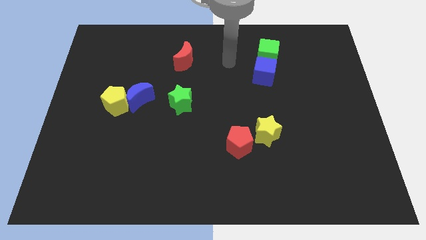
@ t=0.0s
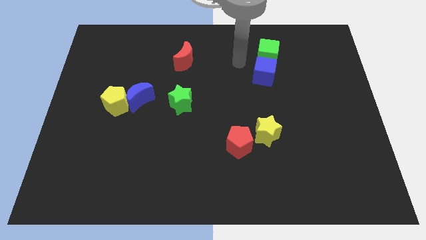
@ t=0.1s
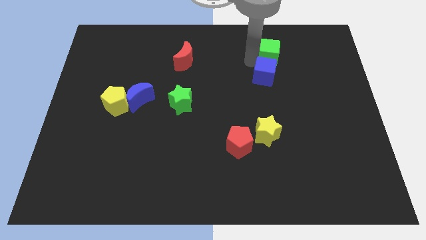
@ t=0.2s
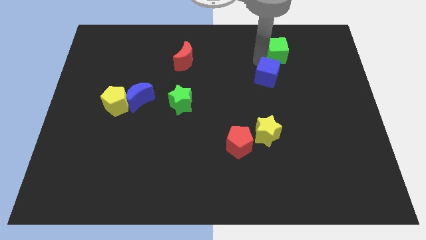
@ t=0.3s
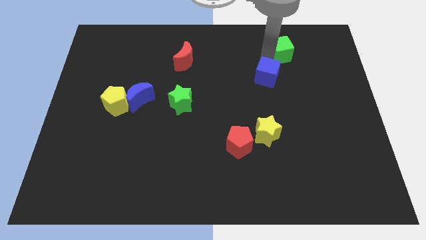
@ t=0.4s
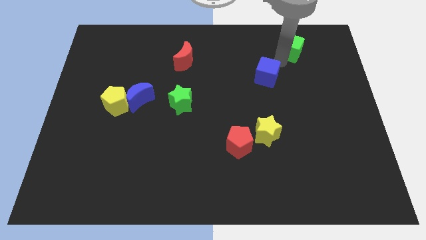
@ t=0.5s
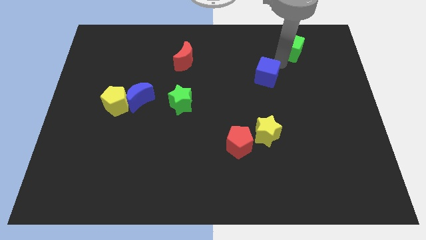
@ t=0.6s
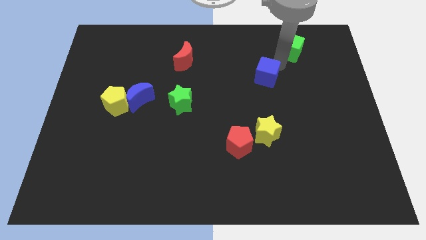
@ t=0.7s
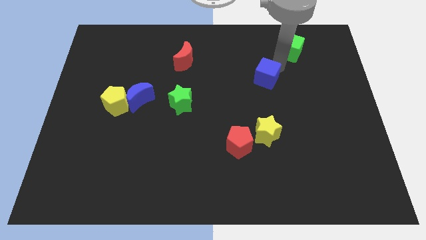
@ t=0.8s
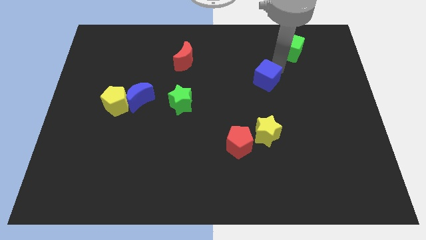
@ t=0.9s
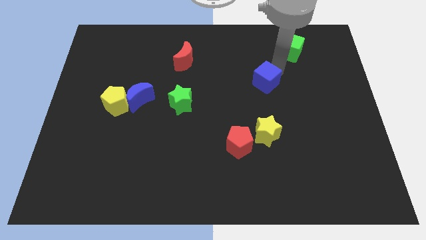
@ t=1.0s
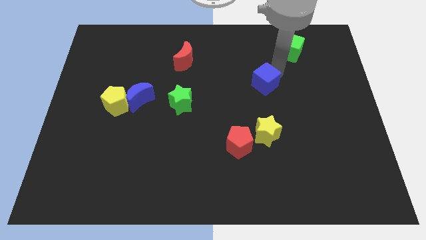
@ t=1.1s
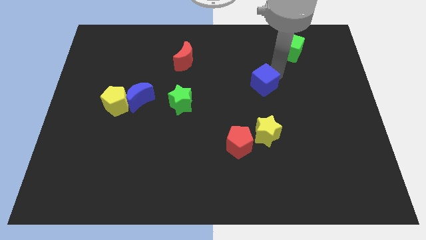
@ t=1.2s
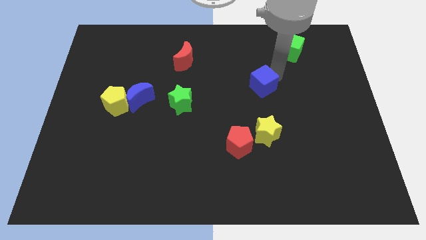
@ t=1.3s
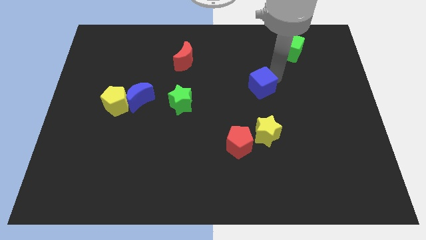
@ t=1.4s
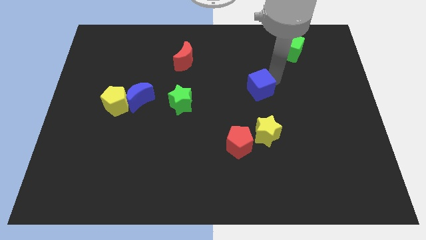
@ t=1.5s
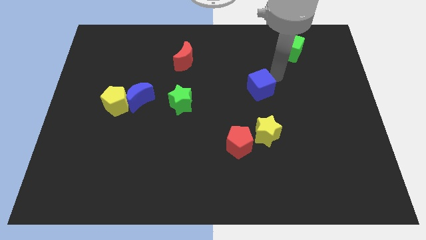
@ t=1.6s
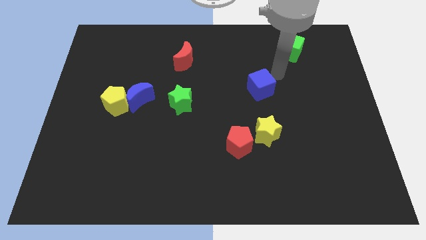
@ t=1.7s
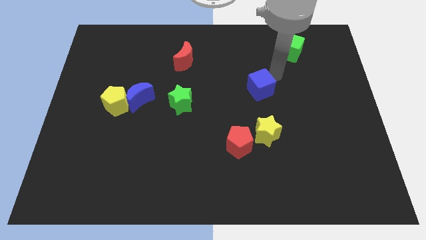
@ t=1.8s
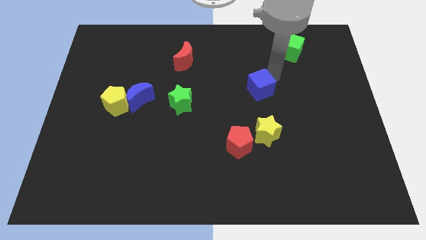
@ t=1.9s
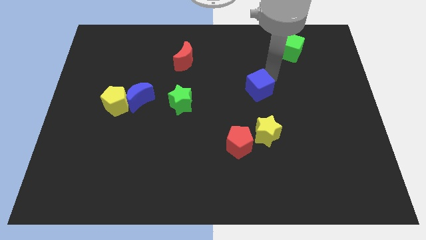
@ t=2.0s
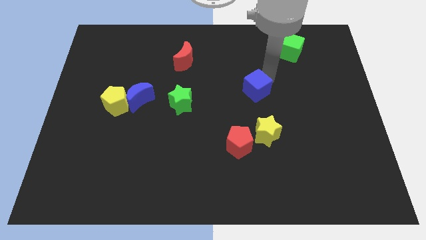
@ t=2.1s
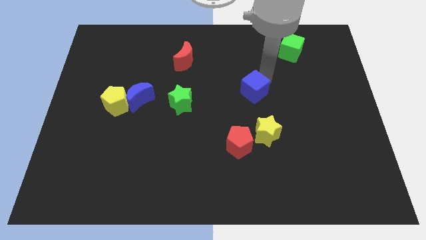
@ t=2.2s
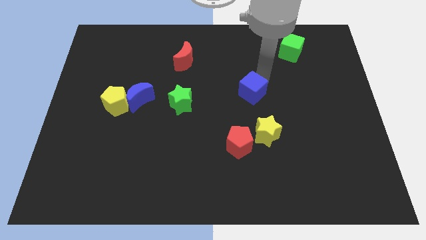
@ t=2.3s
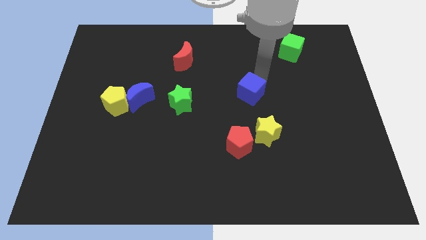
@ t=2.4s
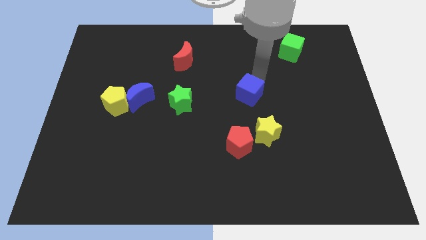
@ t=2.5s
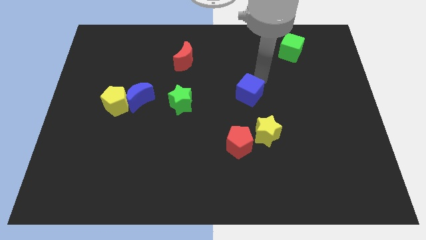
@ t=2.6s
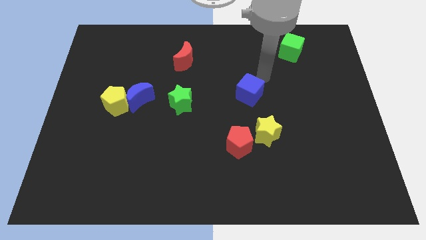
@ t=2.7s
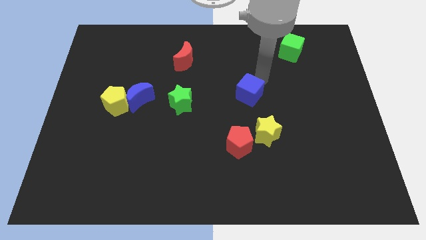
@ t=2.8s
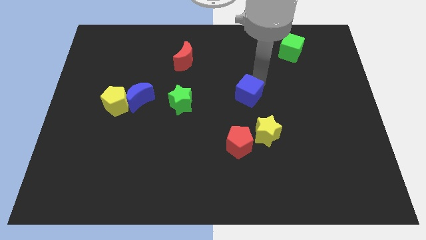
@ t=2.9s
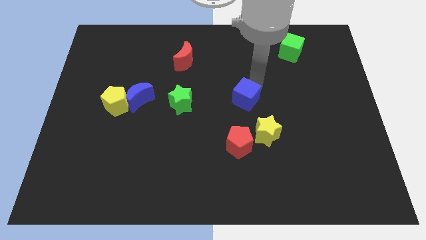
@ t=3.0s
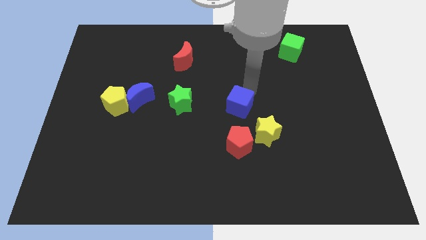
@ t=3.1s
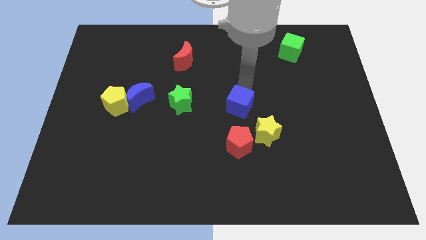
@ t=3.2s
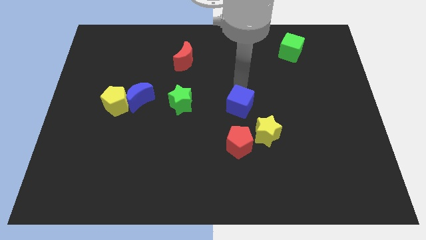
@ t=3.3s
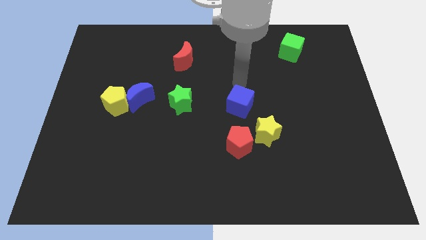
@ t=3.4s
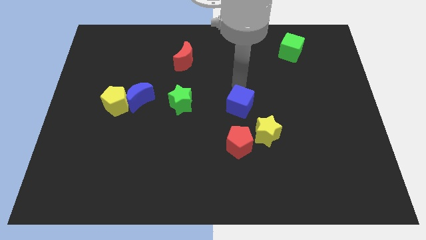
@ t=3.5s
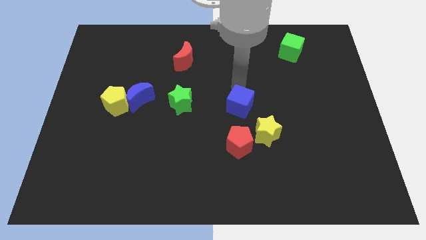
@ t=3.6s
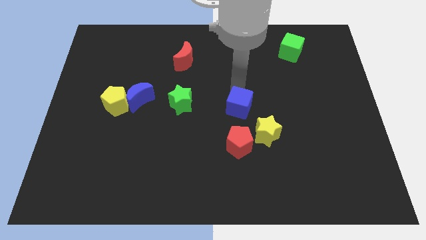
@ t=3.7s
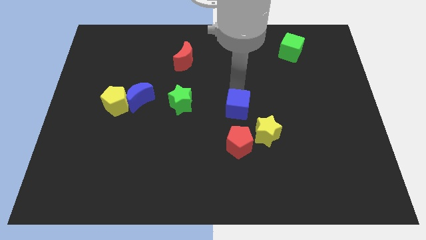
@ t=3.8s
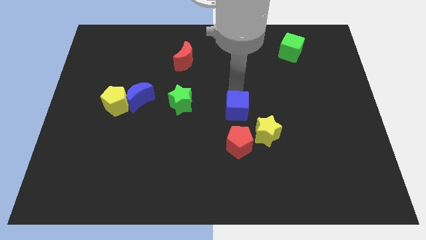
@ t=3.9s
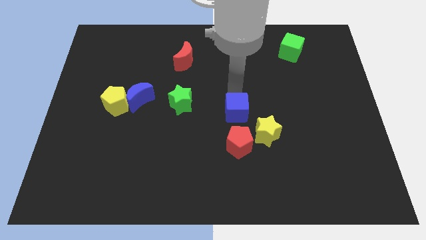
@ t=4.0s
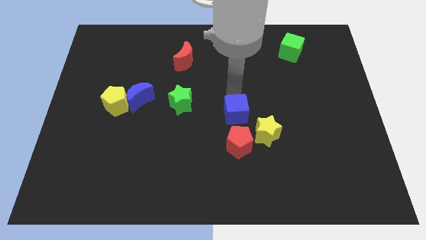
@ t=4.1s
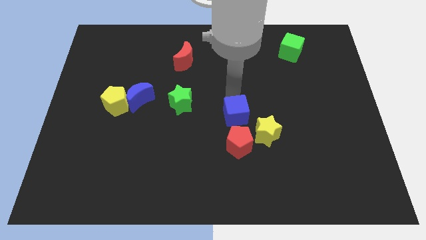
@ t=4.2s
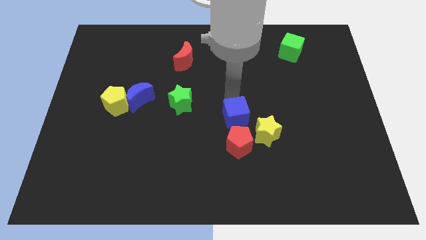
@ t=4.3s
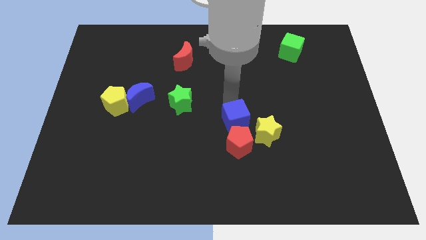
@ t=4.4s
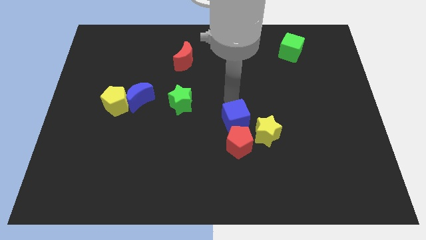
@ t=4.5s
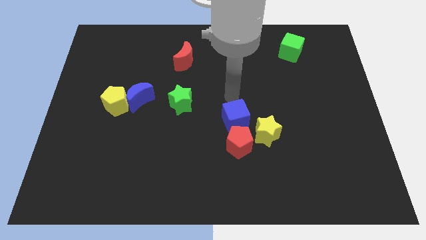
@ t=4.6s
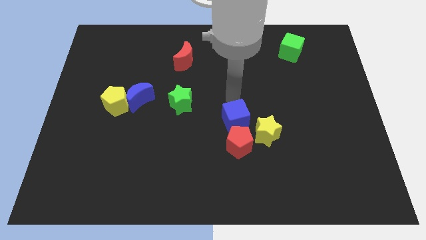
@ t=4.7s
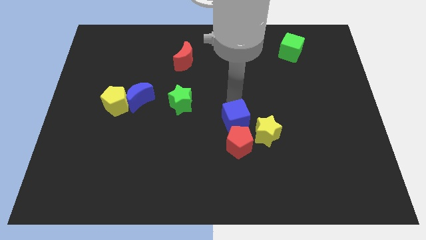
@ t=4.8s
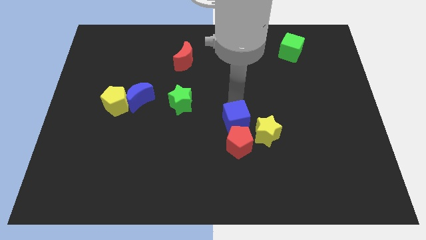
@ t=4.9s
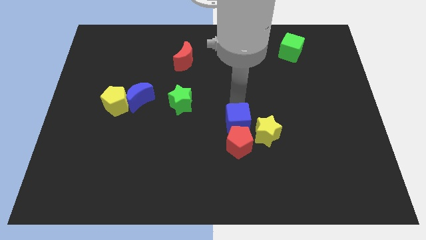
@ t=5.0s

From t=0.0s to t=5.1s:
put the blue cube to the red pentagon

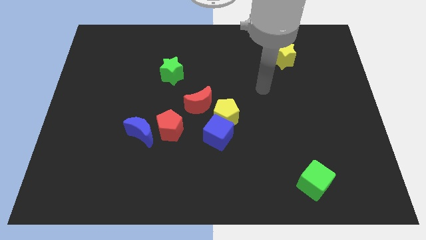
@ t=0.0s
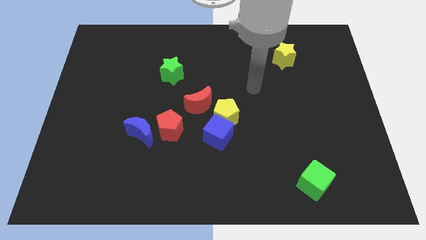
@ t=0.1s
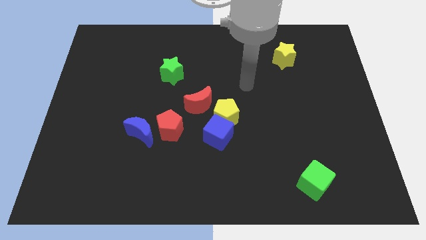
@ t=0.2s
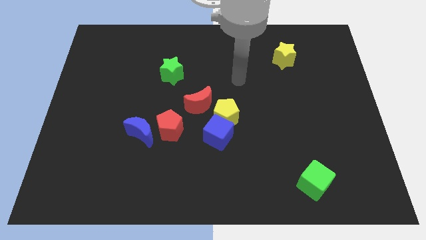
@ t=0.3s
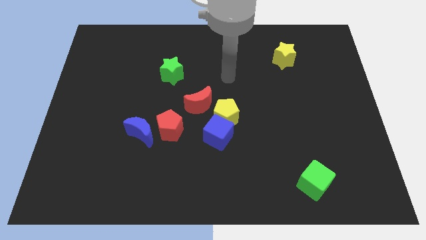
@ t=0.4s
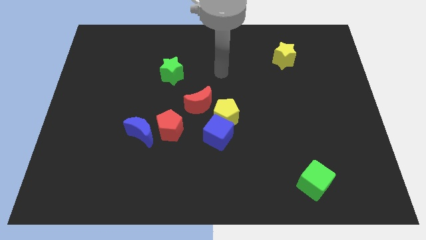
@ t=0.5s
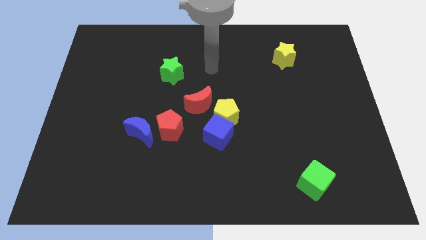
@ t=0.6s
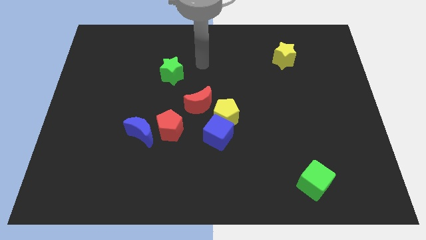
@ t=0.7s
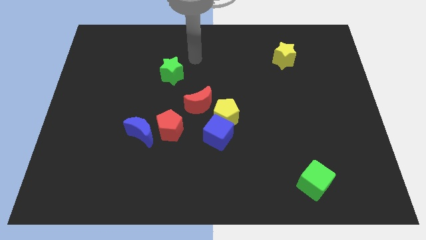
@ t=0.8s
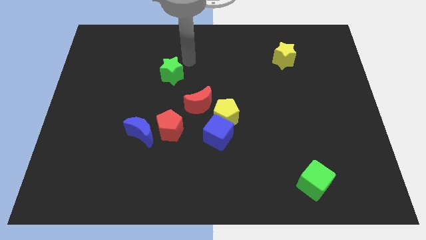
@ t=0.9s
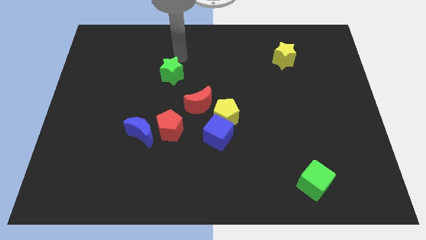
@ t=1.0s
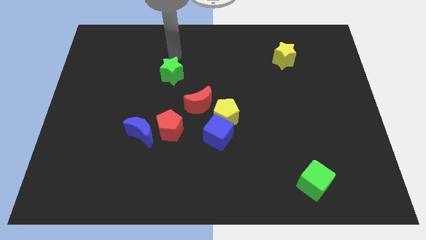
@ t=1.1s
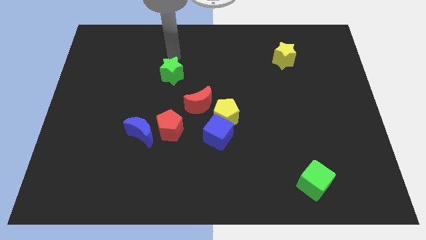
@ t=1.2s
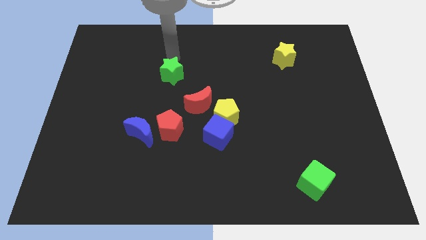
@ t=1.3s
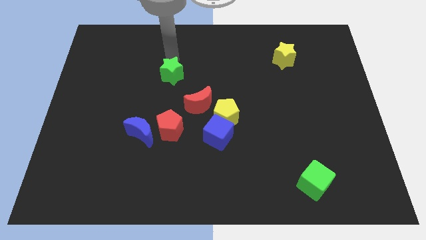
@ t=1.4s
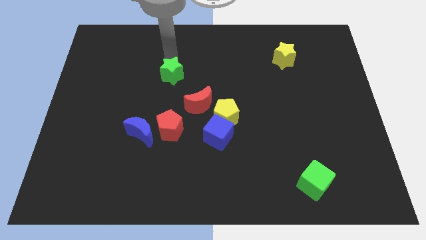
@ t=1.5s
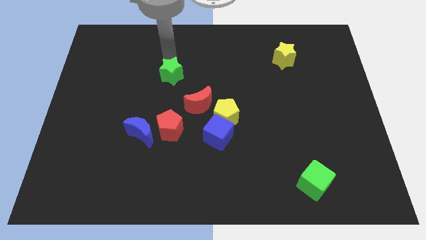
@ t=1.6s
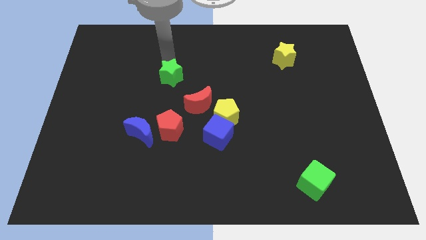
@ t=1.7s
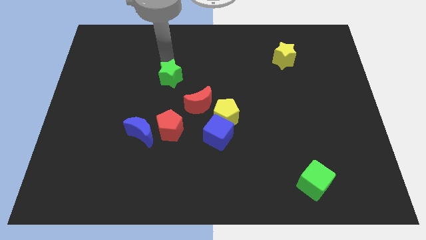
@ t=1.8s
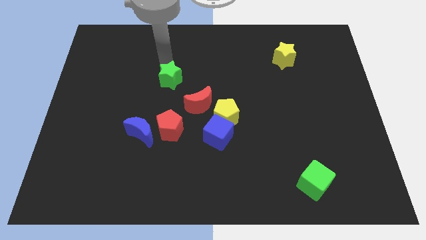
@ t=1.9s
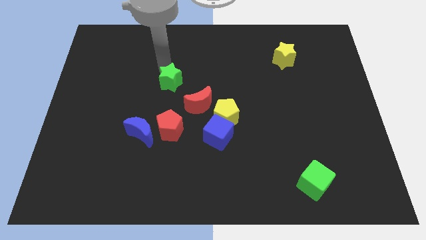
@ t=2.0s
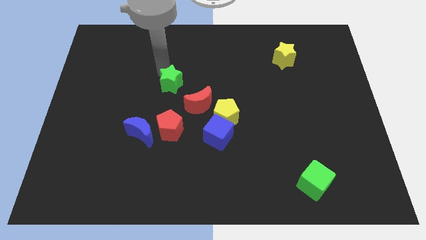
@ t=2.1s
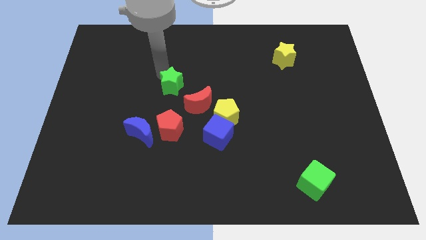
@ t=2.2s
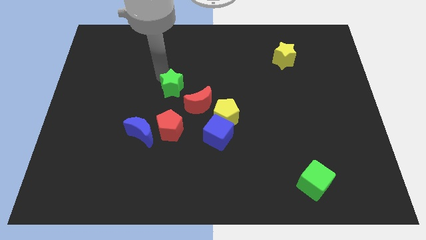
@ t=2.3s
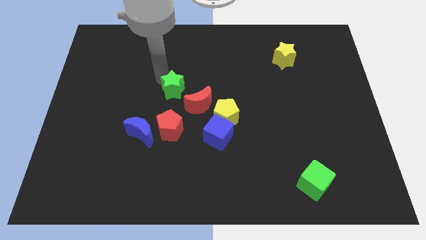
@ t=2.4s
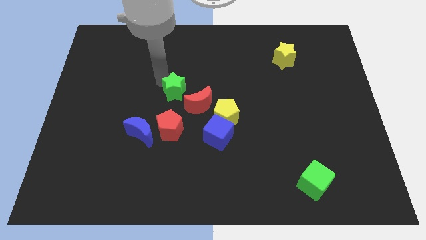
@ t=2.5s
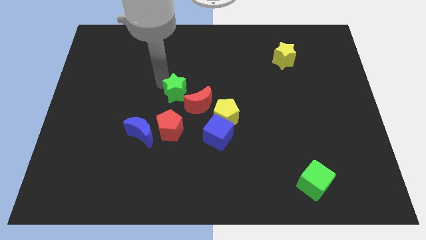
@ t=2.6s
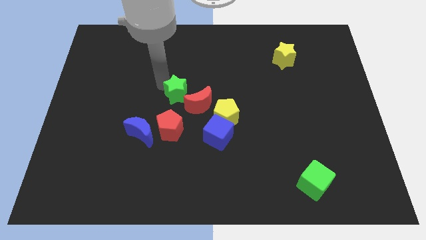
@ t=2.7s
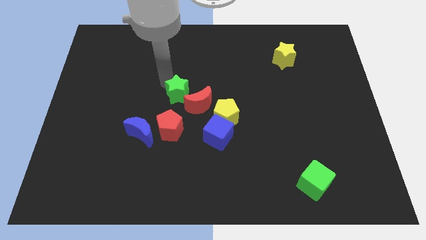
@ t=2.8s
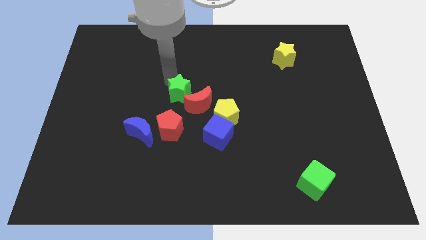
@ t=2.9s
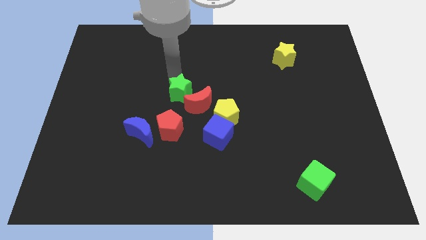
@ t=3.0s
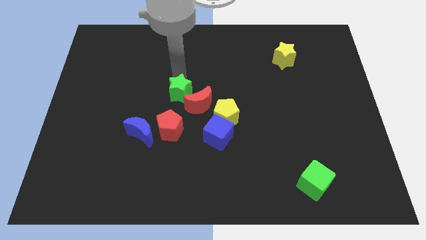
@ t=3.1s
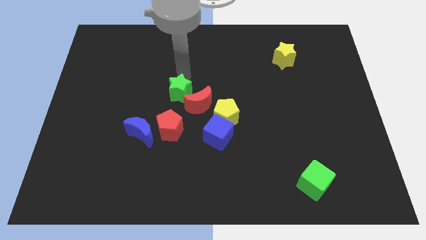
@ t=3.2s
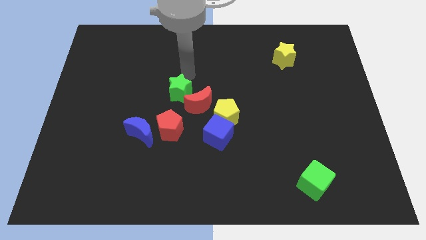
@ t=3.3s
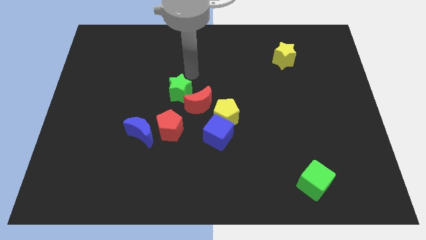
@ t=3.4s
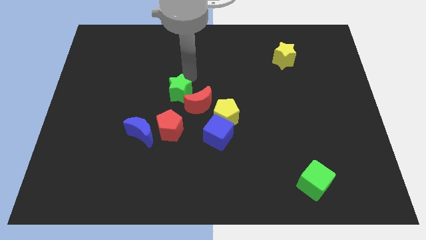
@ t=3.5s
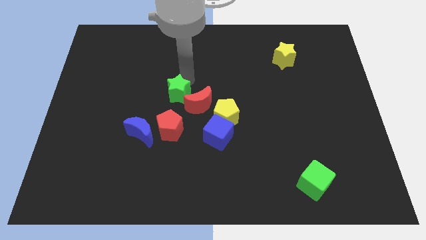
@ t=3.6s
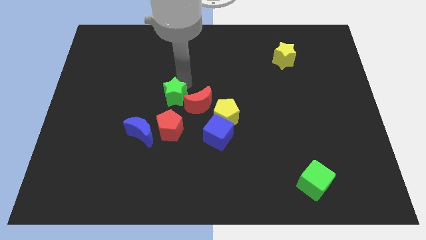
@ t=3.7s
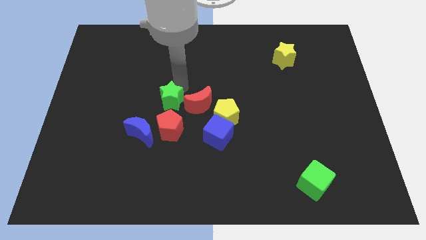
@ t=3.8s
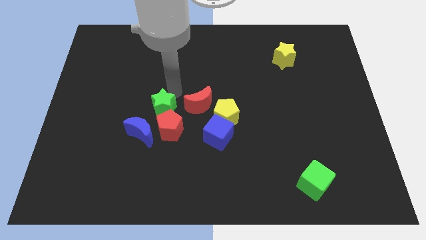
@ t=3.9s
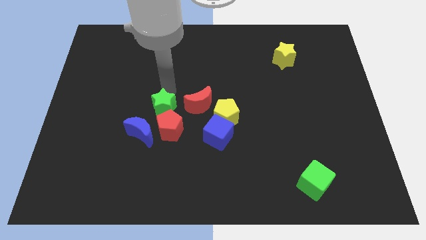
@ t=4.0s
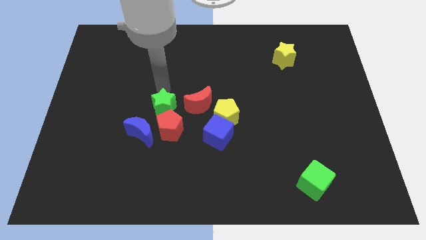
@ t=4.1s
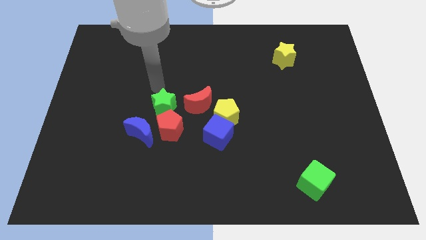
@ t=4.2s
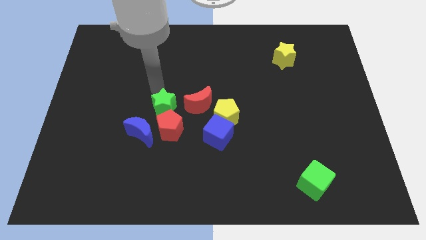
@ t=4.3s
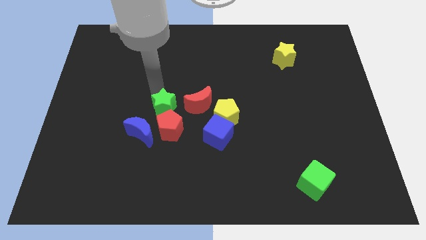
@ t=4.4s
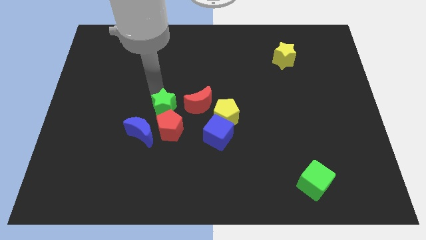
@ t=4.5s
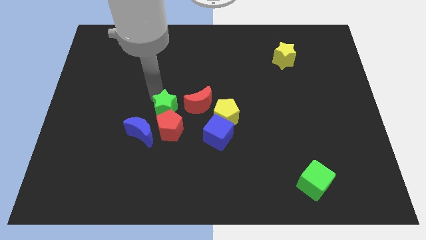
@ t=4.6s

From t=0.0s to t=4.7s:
put the green star towards the red pentagon
